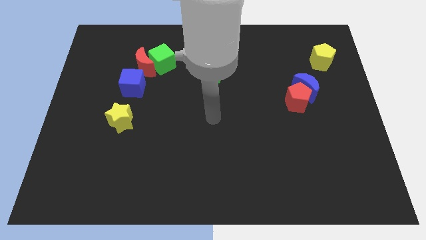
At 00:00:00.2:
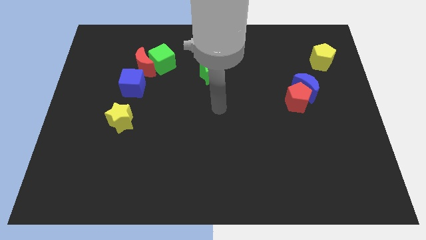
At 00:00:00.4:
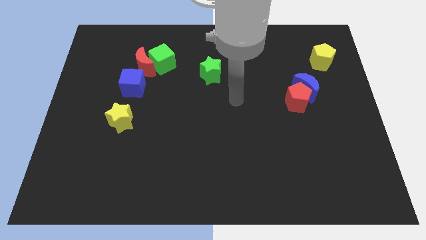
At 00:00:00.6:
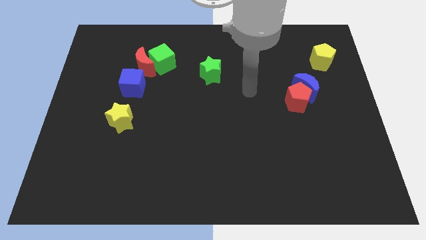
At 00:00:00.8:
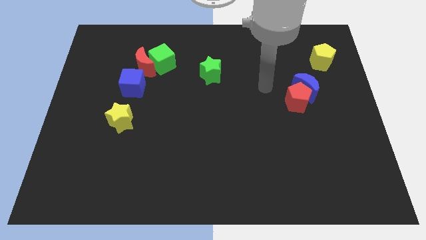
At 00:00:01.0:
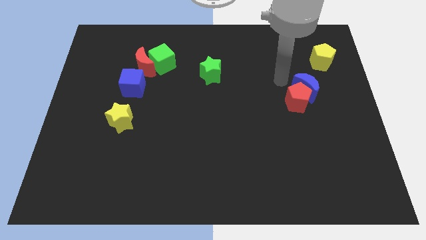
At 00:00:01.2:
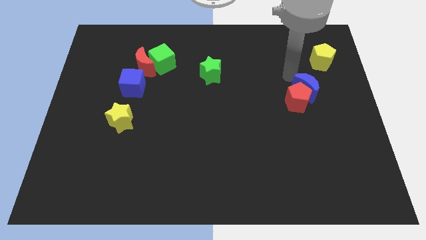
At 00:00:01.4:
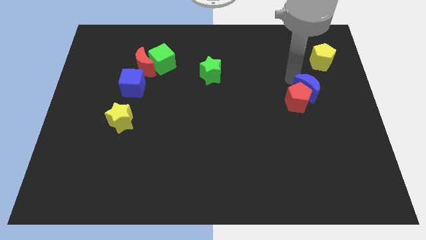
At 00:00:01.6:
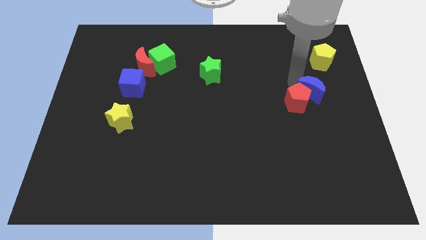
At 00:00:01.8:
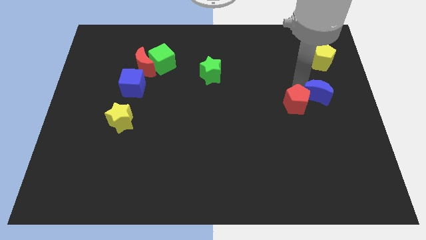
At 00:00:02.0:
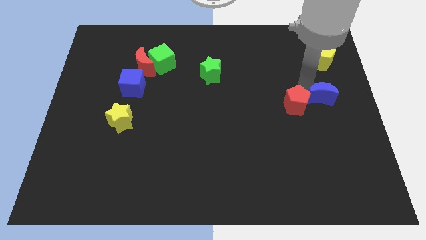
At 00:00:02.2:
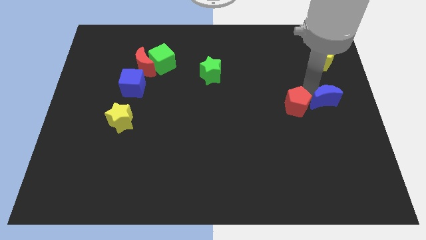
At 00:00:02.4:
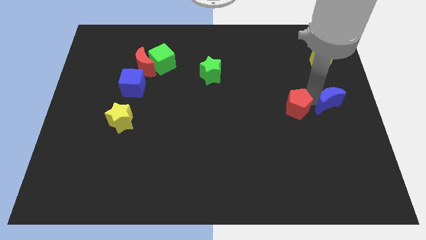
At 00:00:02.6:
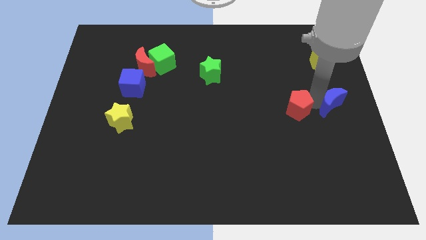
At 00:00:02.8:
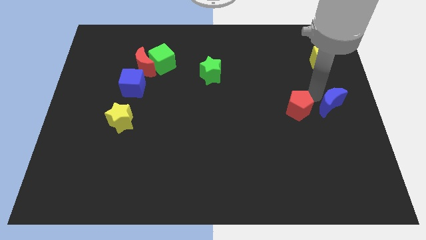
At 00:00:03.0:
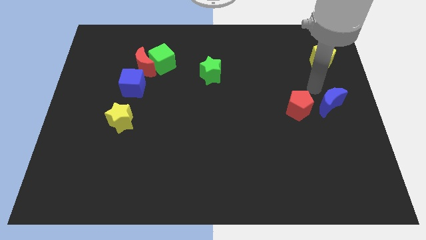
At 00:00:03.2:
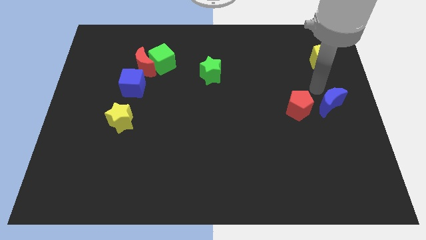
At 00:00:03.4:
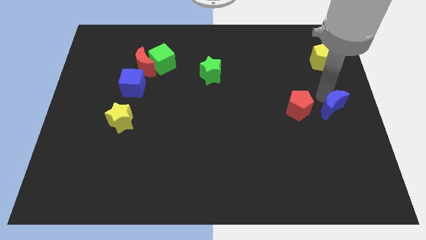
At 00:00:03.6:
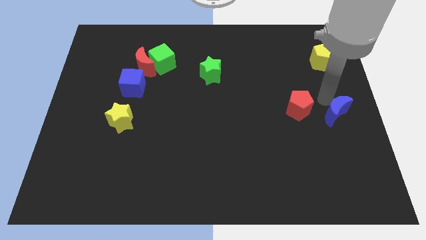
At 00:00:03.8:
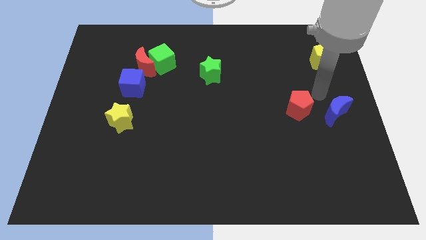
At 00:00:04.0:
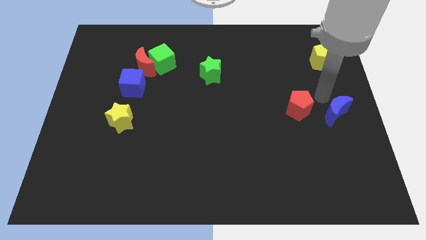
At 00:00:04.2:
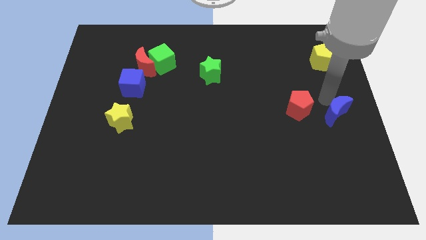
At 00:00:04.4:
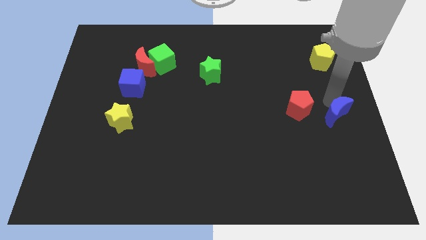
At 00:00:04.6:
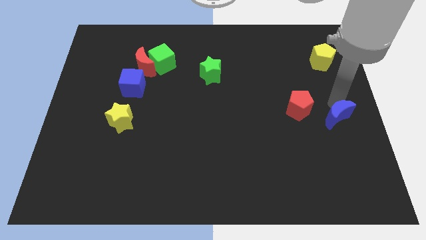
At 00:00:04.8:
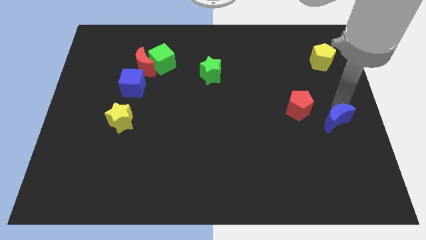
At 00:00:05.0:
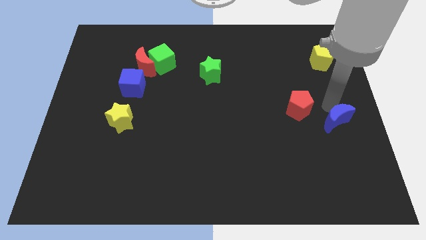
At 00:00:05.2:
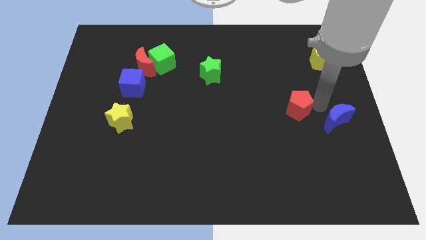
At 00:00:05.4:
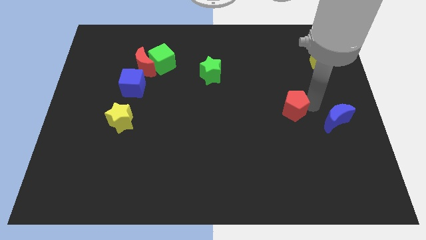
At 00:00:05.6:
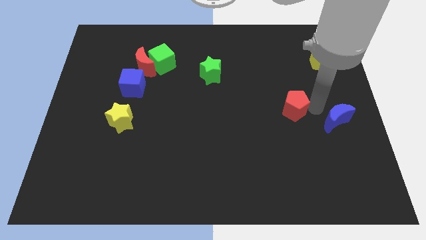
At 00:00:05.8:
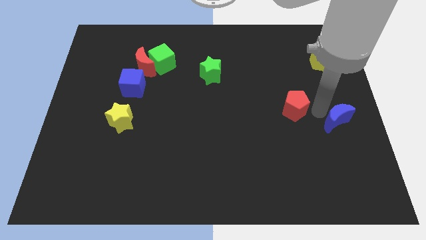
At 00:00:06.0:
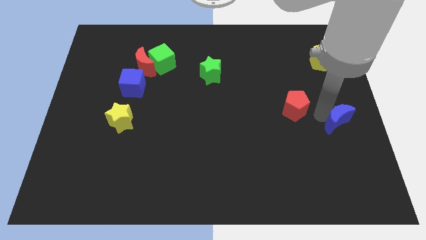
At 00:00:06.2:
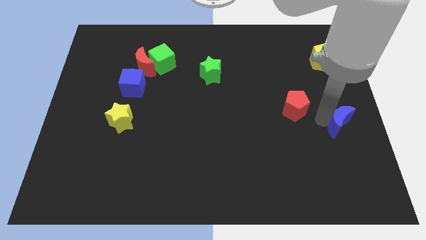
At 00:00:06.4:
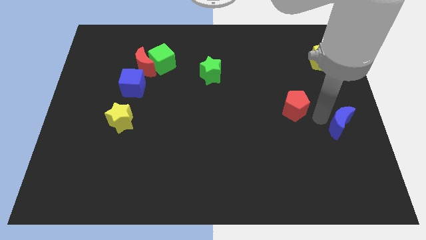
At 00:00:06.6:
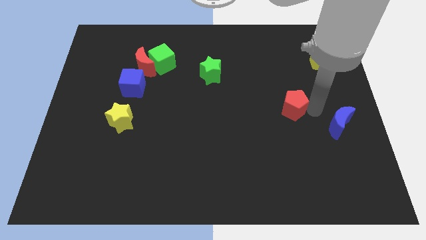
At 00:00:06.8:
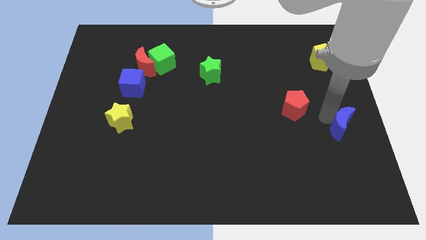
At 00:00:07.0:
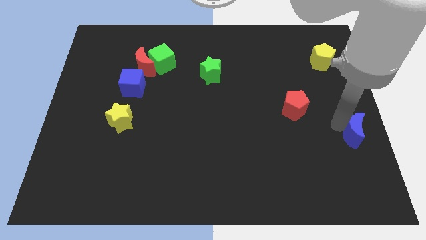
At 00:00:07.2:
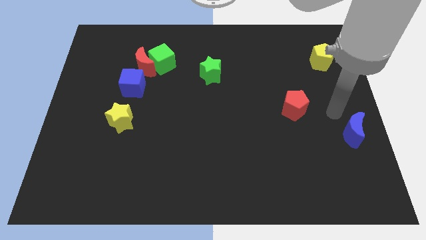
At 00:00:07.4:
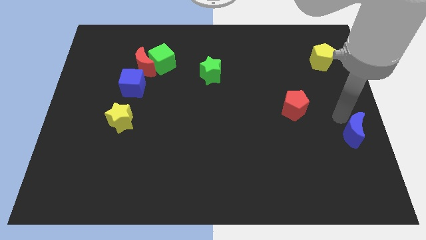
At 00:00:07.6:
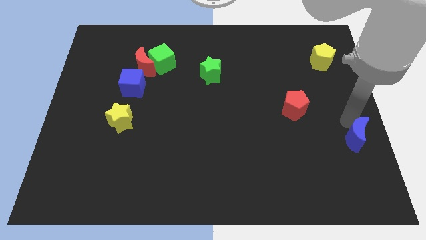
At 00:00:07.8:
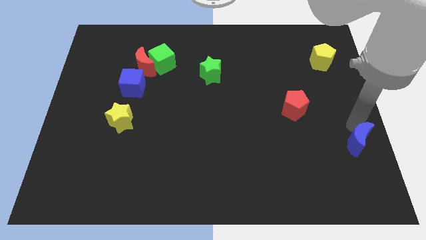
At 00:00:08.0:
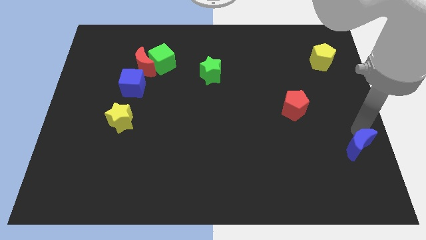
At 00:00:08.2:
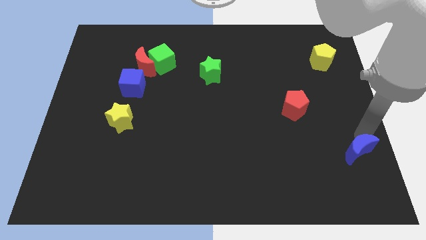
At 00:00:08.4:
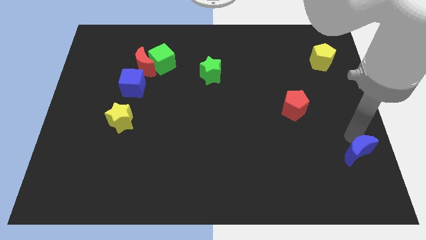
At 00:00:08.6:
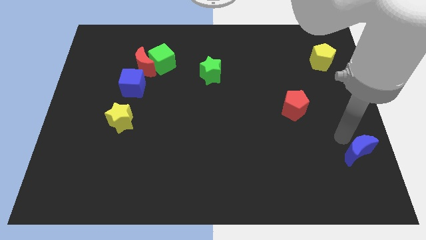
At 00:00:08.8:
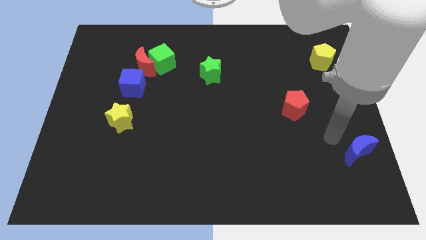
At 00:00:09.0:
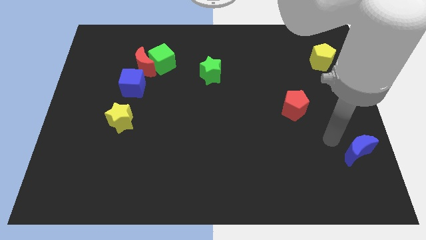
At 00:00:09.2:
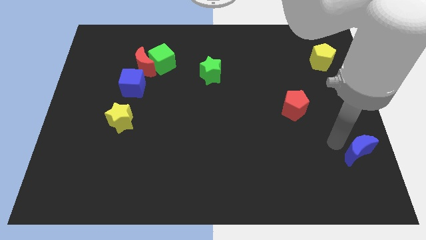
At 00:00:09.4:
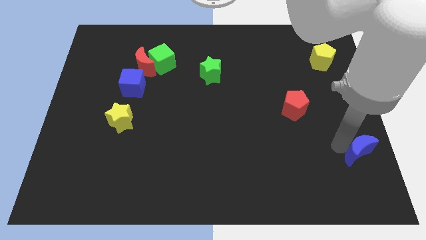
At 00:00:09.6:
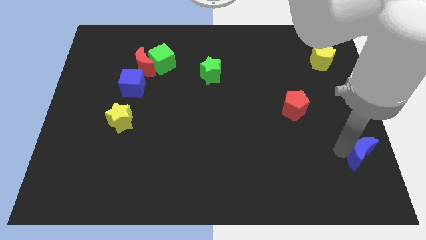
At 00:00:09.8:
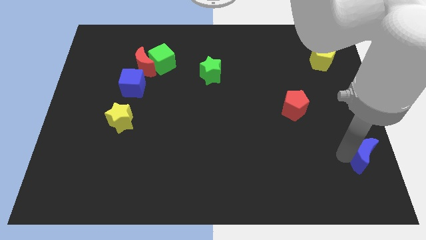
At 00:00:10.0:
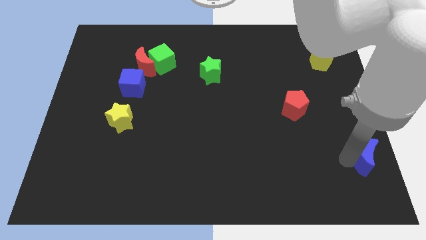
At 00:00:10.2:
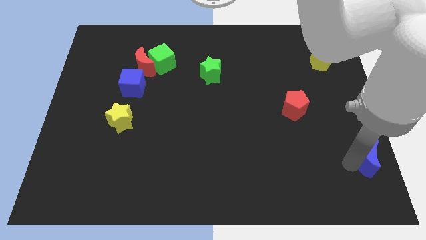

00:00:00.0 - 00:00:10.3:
put the blue moon to the bottom right of the board

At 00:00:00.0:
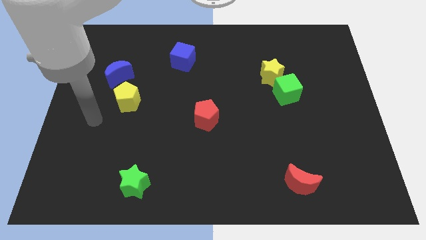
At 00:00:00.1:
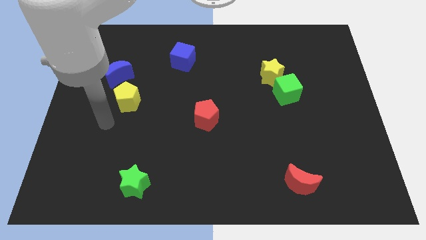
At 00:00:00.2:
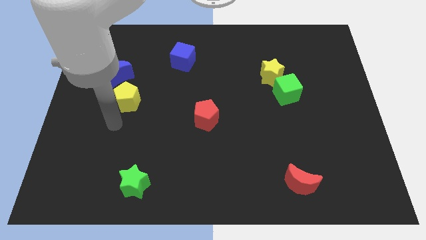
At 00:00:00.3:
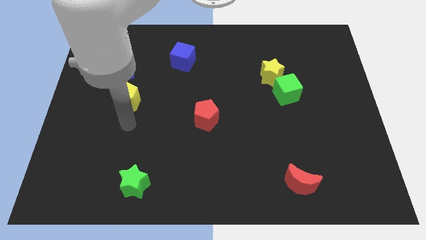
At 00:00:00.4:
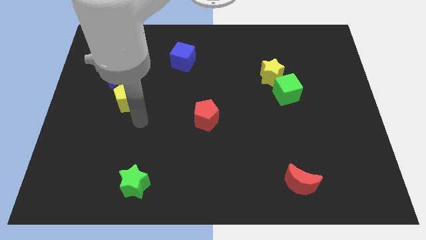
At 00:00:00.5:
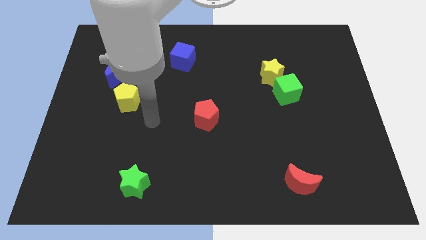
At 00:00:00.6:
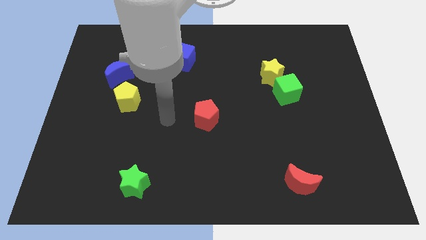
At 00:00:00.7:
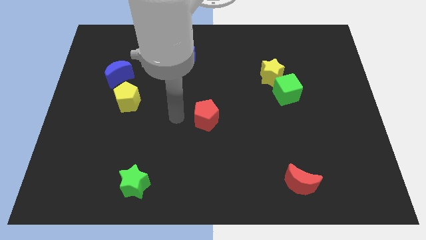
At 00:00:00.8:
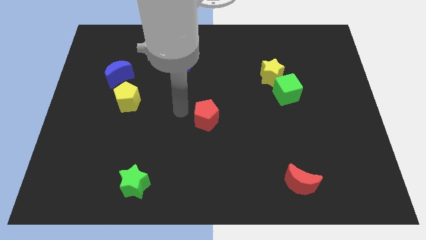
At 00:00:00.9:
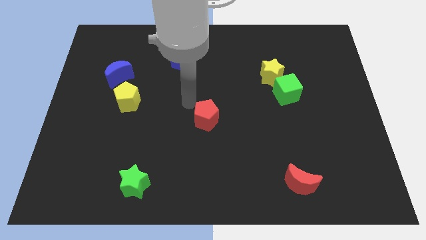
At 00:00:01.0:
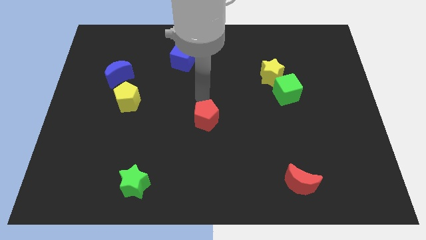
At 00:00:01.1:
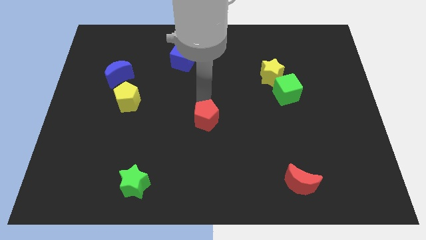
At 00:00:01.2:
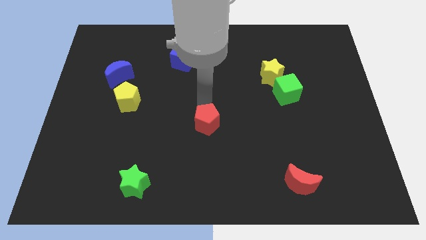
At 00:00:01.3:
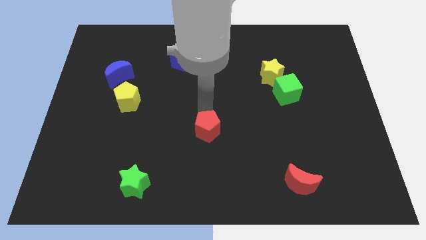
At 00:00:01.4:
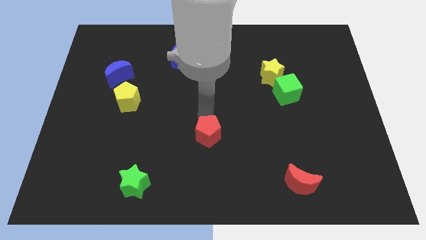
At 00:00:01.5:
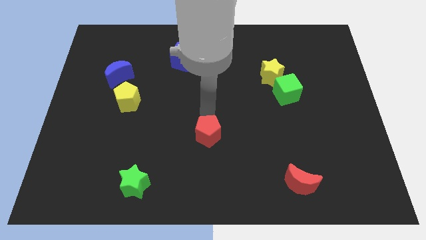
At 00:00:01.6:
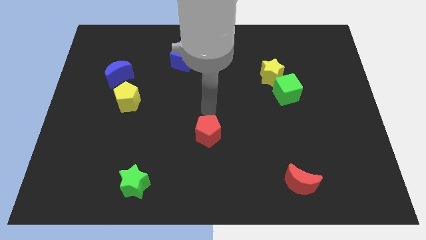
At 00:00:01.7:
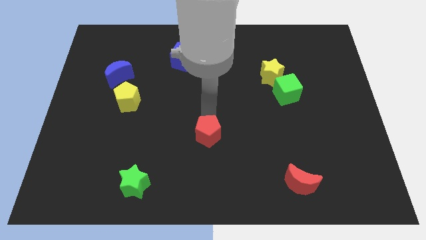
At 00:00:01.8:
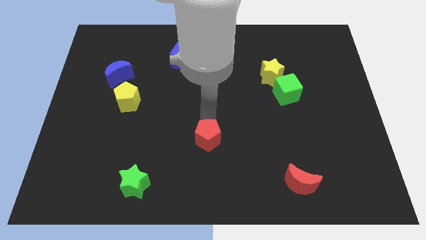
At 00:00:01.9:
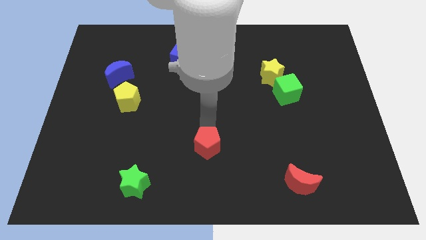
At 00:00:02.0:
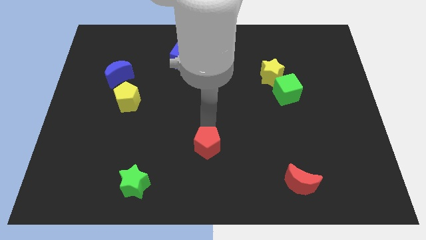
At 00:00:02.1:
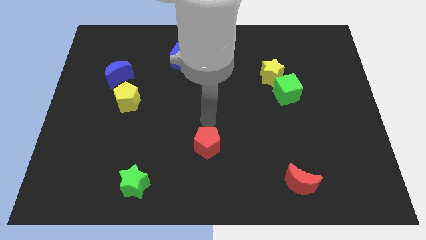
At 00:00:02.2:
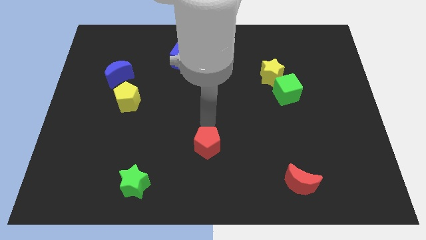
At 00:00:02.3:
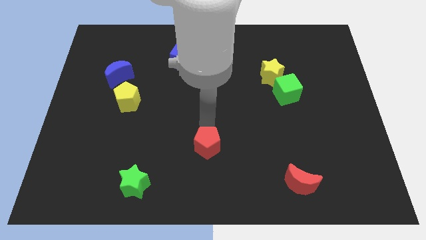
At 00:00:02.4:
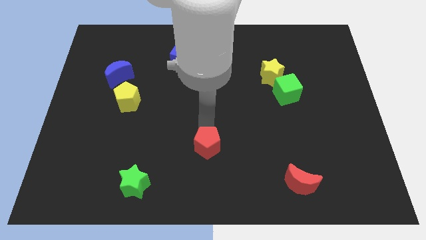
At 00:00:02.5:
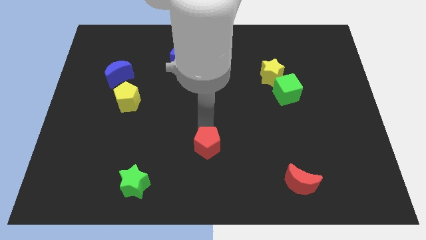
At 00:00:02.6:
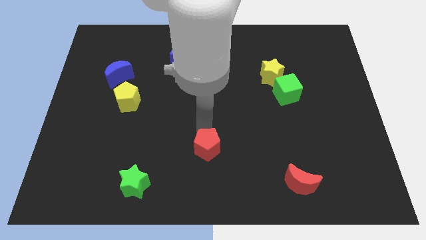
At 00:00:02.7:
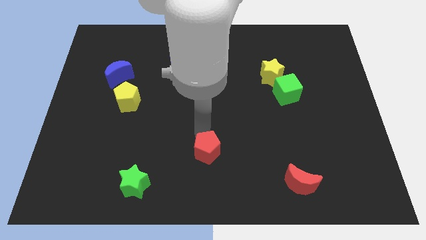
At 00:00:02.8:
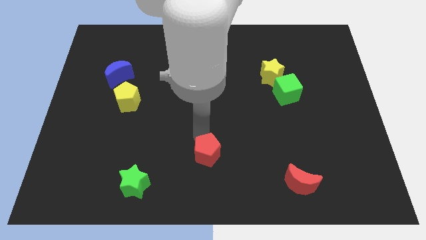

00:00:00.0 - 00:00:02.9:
slide the red pentagon to the bottom side
